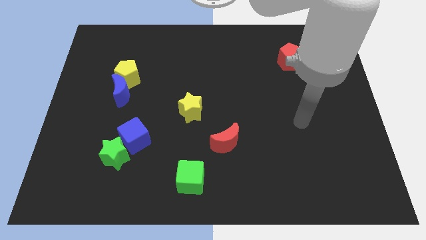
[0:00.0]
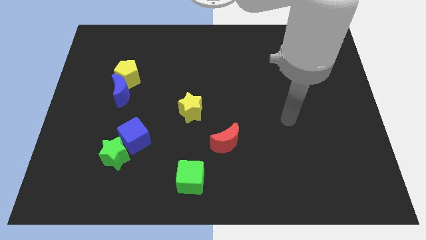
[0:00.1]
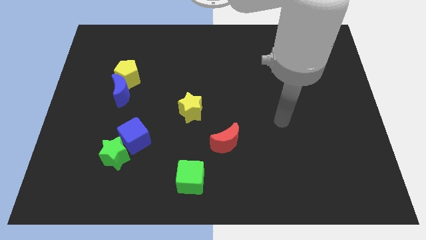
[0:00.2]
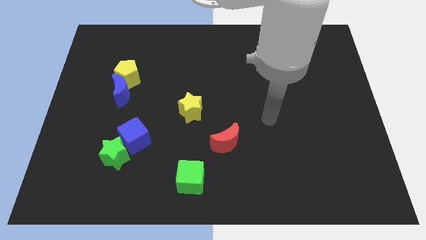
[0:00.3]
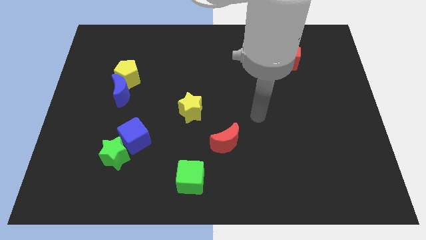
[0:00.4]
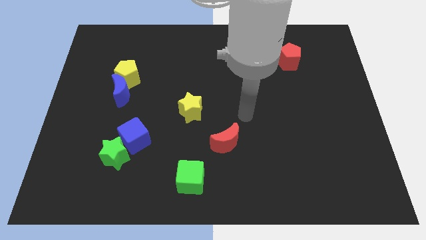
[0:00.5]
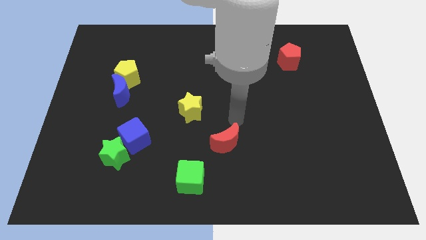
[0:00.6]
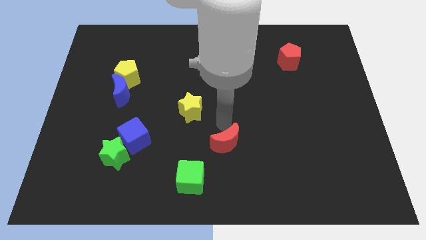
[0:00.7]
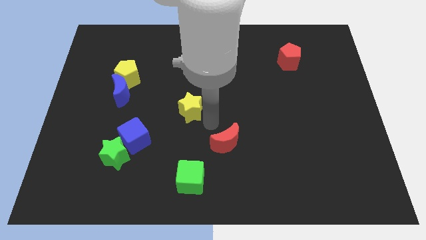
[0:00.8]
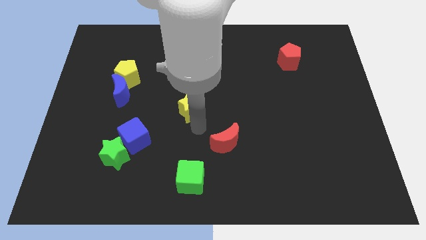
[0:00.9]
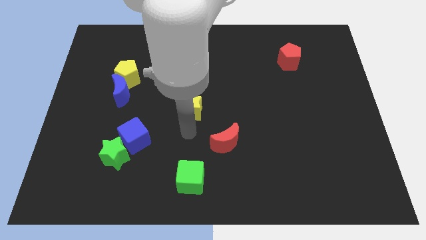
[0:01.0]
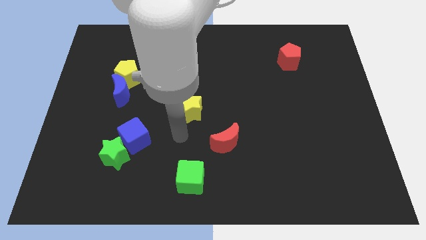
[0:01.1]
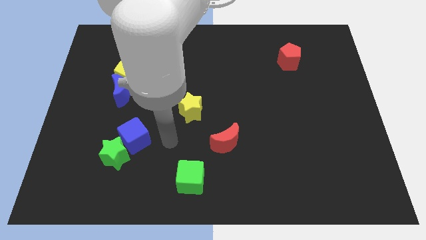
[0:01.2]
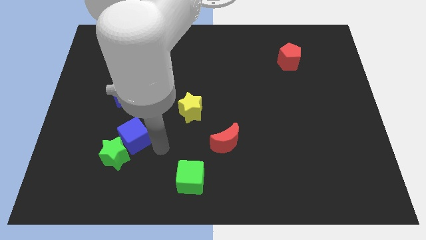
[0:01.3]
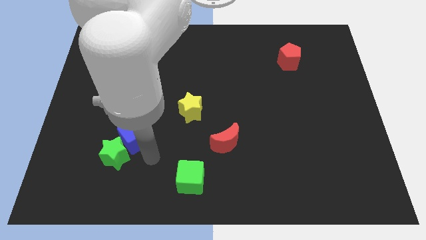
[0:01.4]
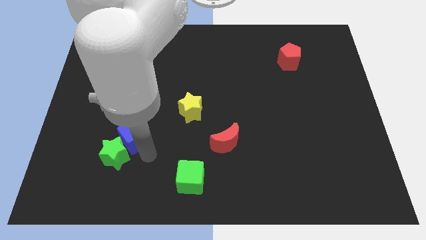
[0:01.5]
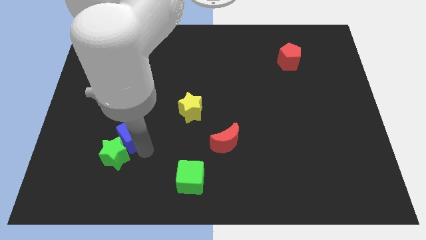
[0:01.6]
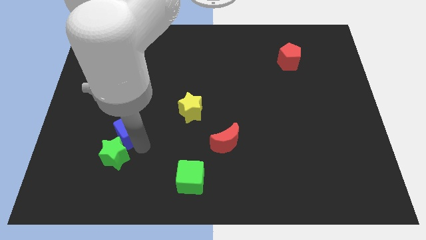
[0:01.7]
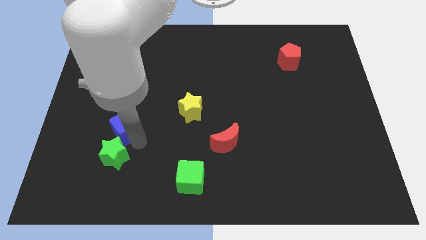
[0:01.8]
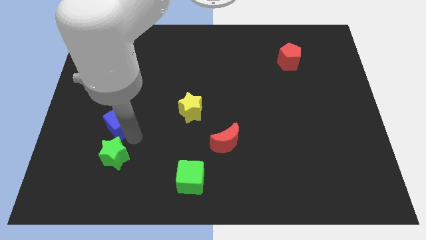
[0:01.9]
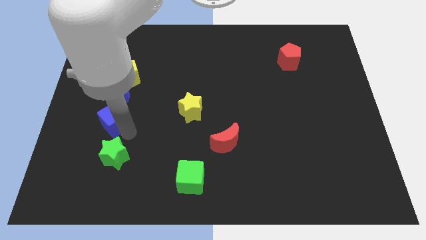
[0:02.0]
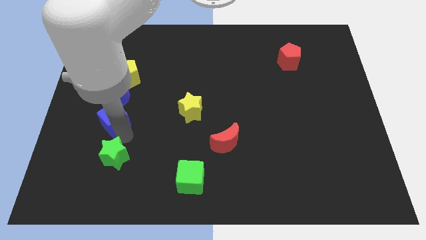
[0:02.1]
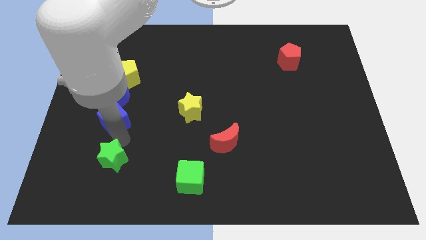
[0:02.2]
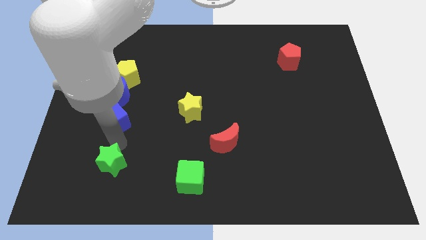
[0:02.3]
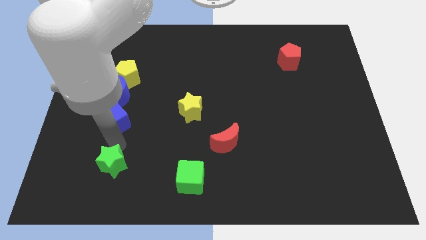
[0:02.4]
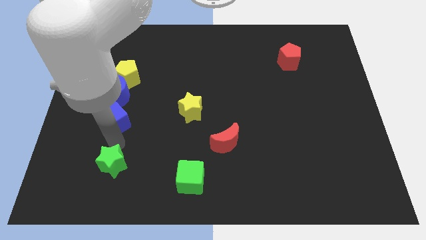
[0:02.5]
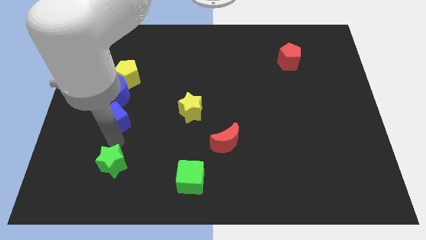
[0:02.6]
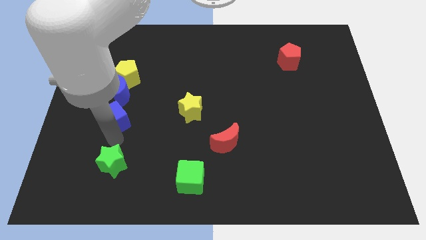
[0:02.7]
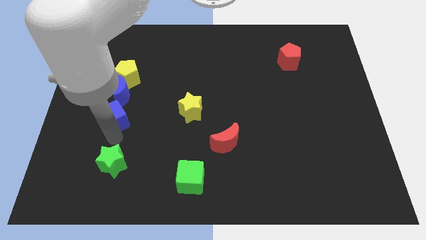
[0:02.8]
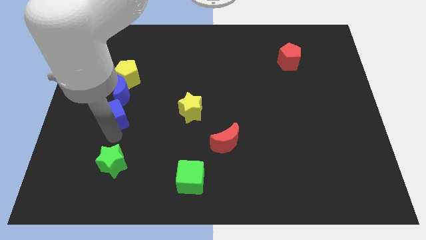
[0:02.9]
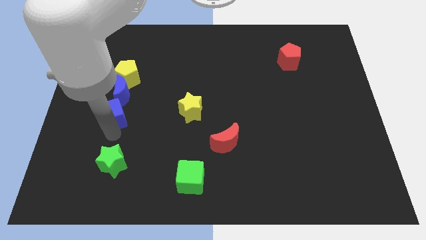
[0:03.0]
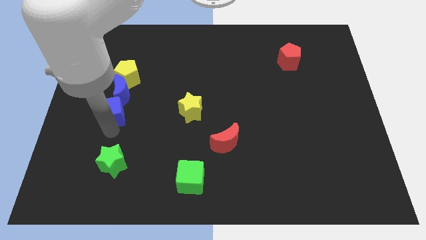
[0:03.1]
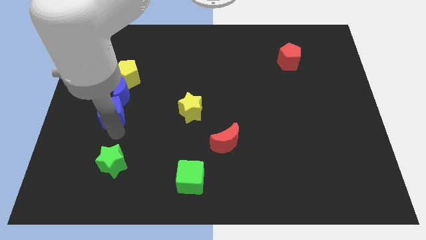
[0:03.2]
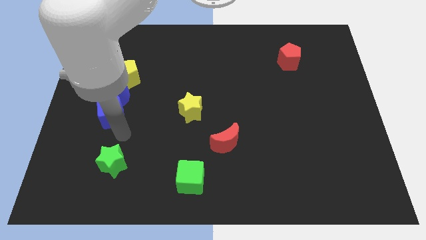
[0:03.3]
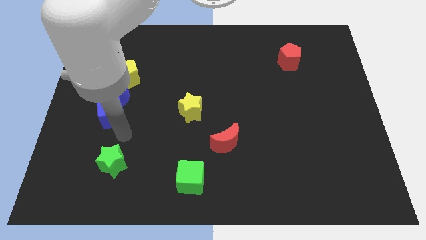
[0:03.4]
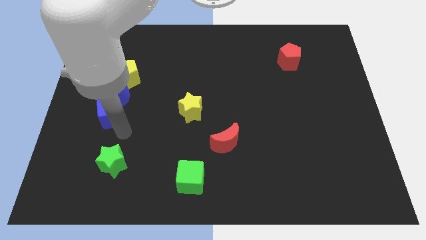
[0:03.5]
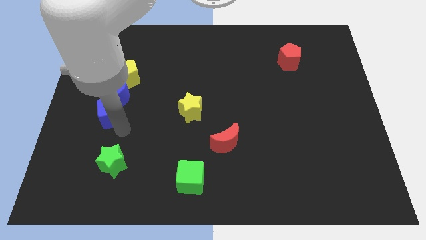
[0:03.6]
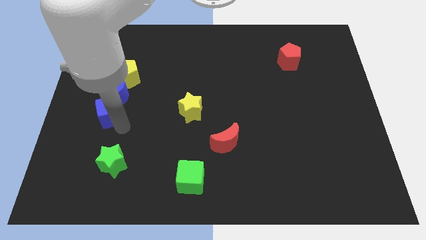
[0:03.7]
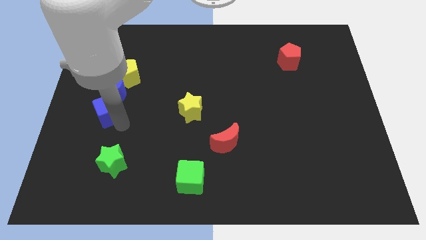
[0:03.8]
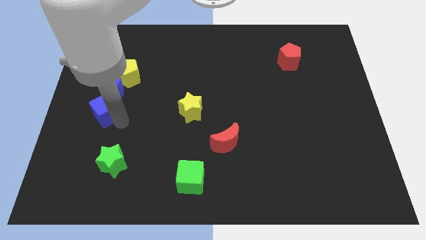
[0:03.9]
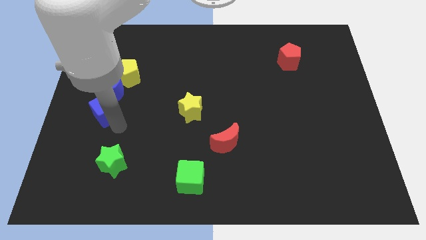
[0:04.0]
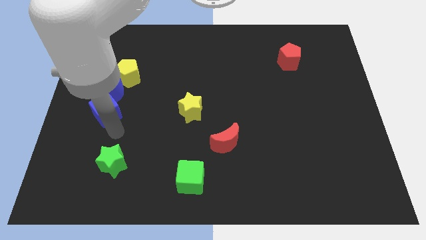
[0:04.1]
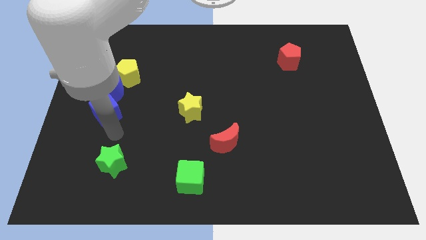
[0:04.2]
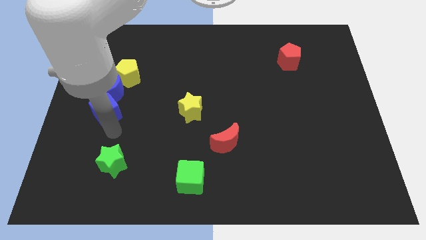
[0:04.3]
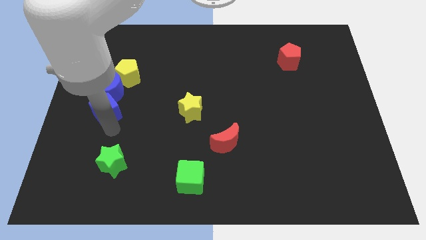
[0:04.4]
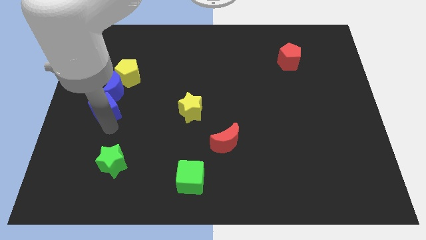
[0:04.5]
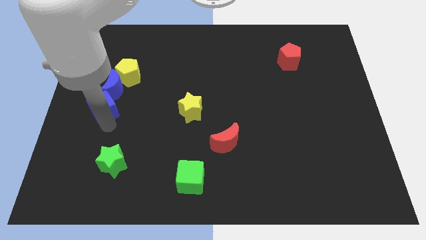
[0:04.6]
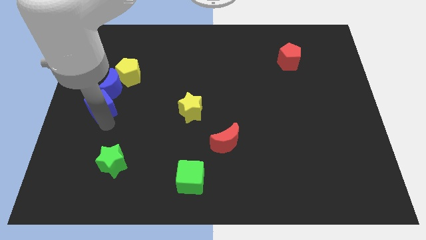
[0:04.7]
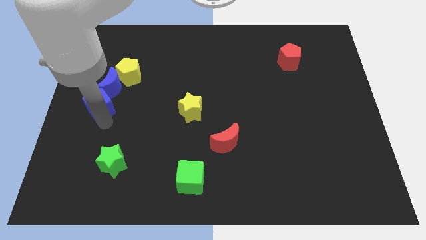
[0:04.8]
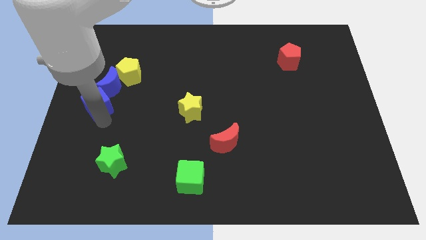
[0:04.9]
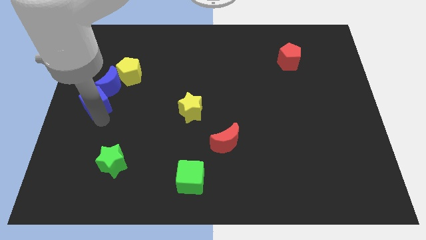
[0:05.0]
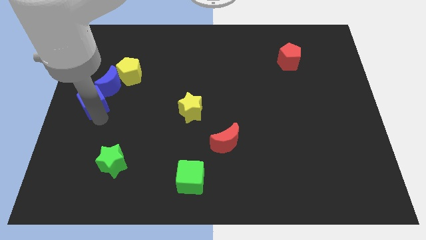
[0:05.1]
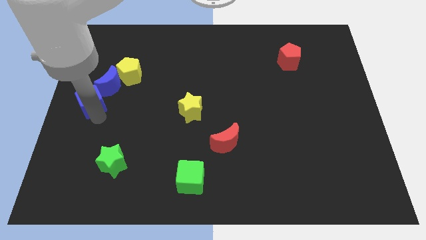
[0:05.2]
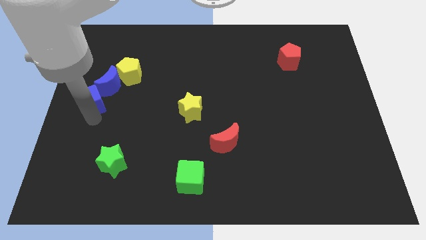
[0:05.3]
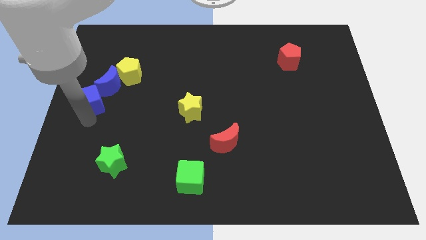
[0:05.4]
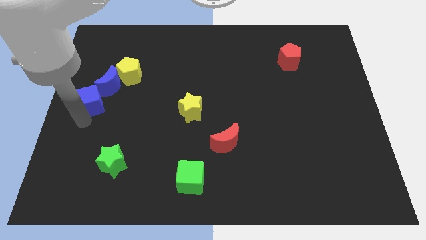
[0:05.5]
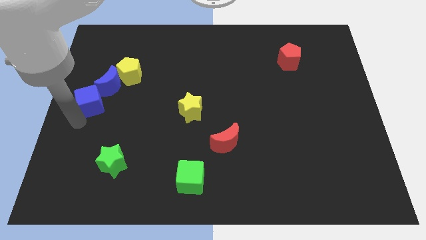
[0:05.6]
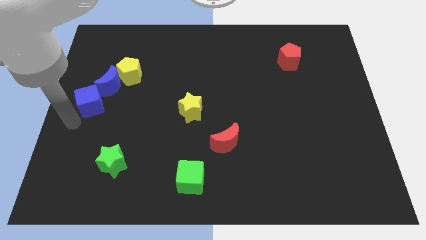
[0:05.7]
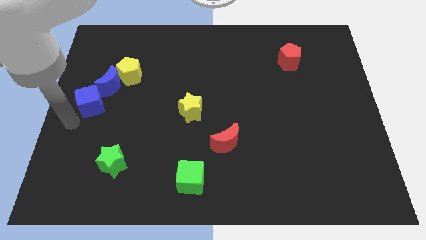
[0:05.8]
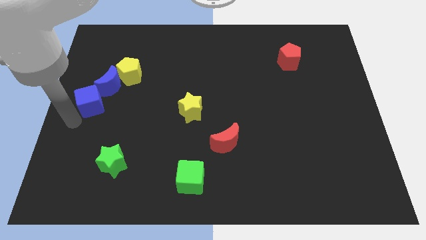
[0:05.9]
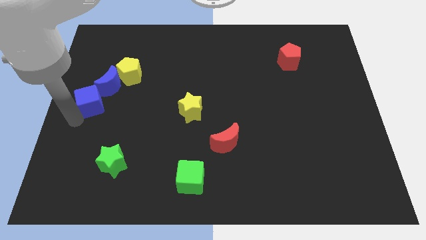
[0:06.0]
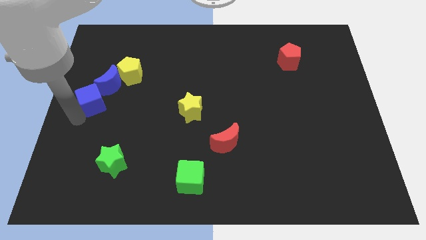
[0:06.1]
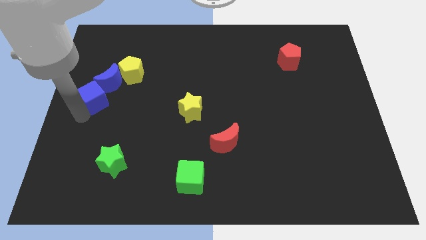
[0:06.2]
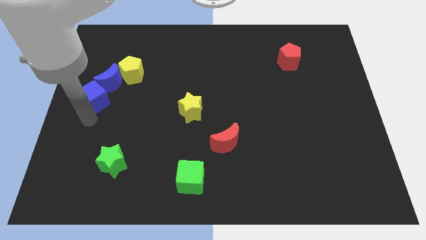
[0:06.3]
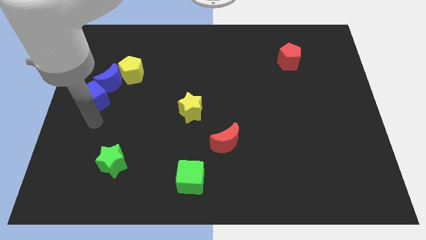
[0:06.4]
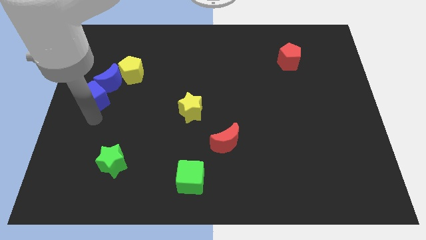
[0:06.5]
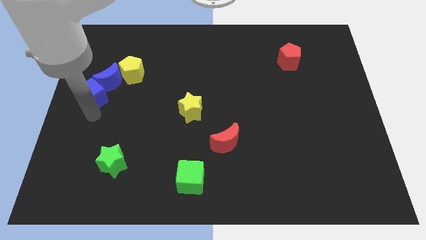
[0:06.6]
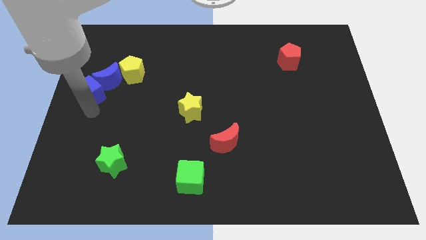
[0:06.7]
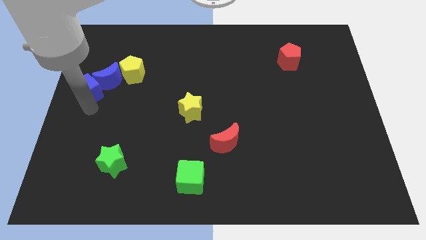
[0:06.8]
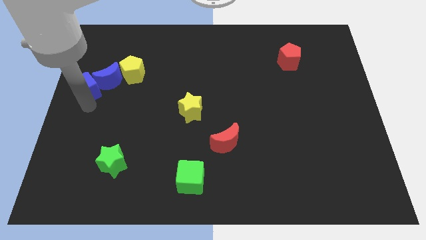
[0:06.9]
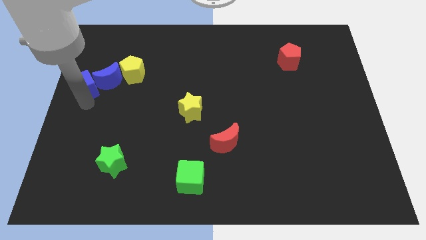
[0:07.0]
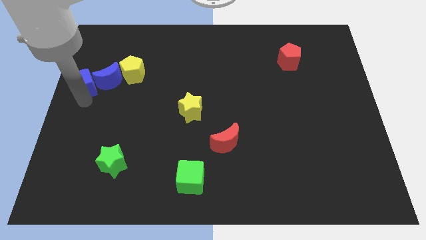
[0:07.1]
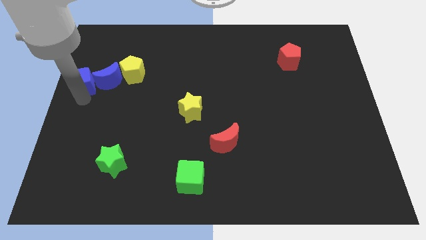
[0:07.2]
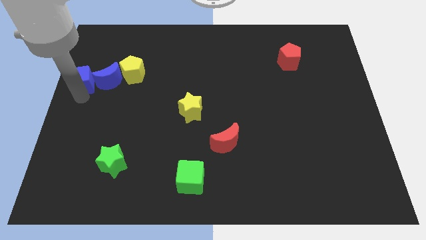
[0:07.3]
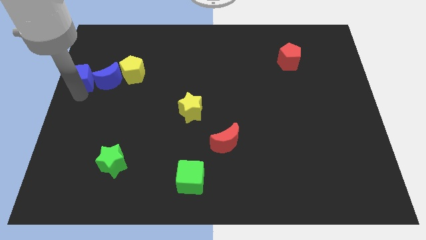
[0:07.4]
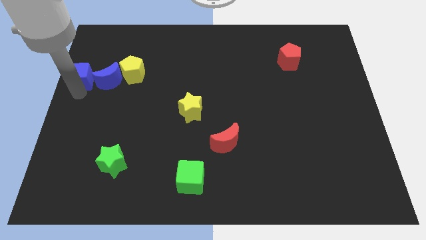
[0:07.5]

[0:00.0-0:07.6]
put the blue cube diagonally up and to the left of the blue moon
